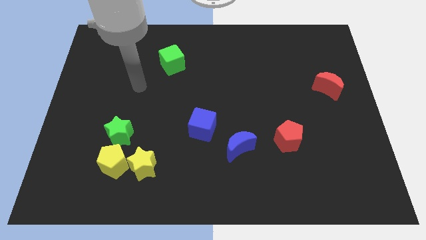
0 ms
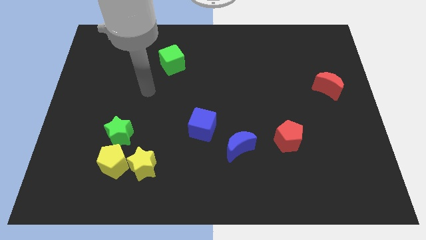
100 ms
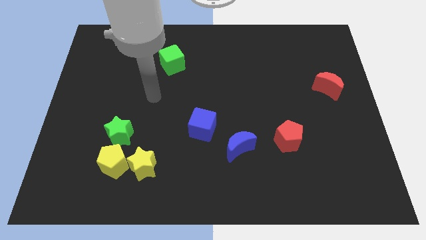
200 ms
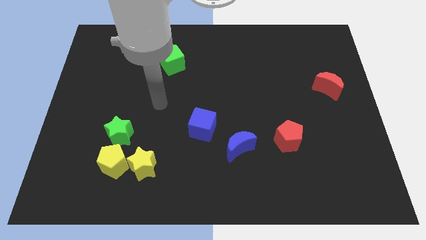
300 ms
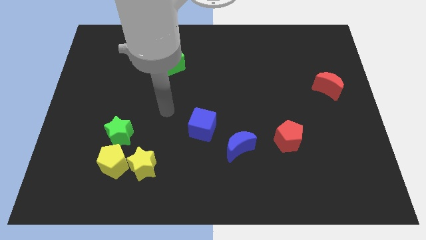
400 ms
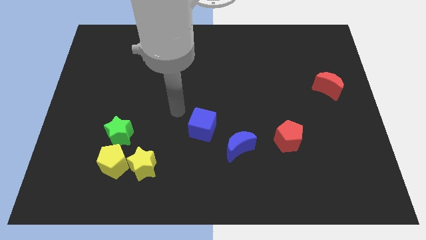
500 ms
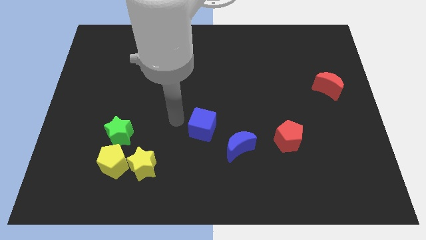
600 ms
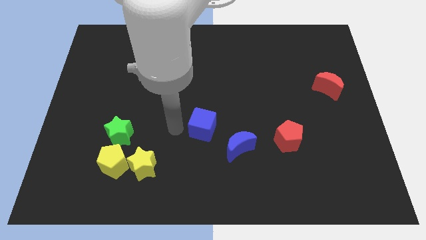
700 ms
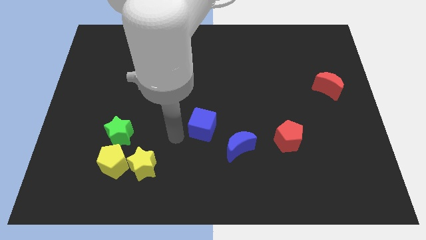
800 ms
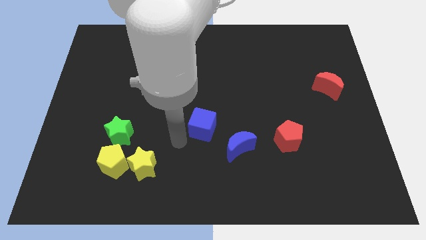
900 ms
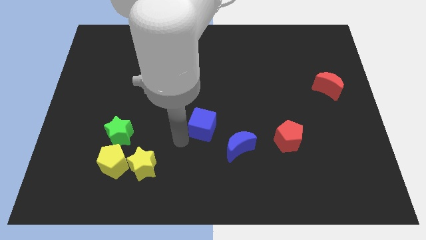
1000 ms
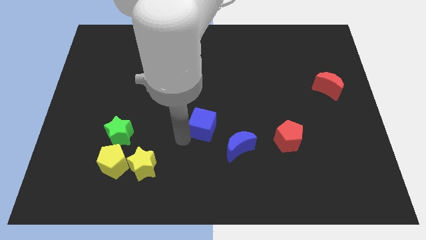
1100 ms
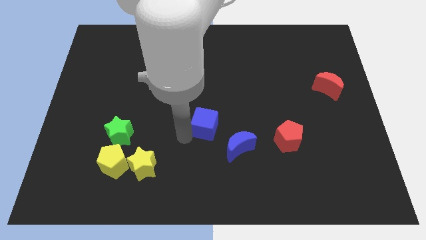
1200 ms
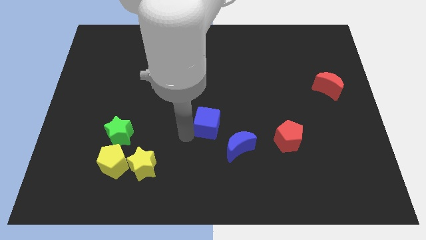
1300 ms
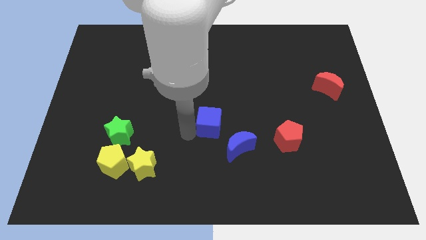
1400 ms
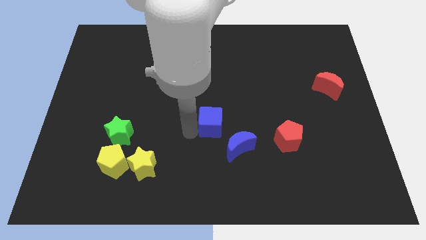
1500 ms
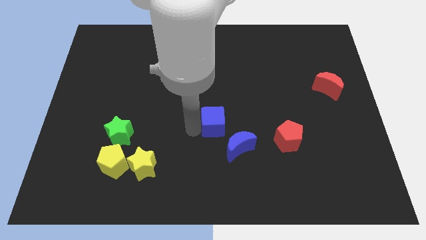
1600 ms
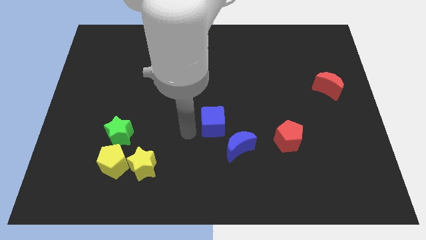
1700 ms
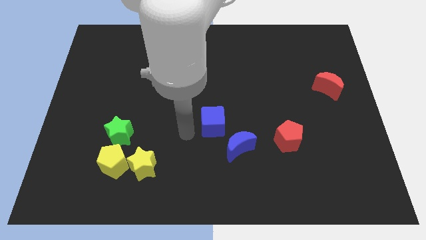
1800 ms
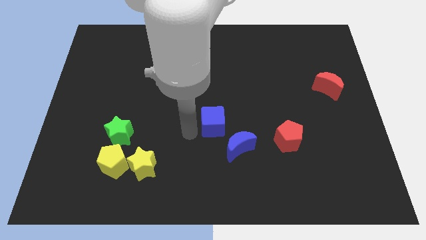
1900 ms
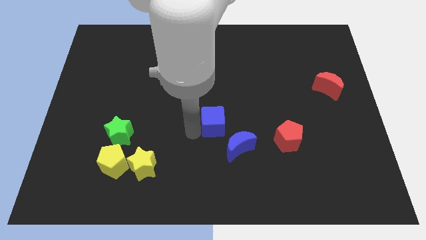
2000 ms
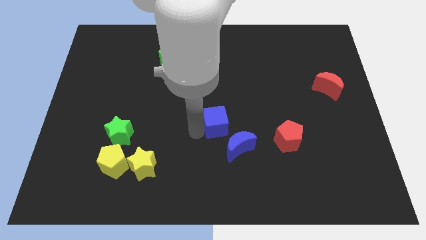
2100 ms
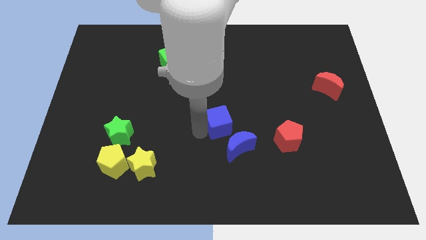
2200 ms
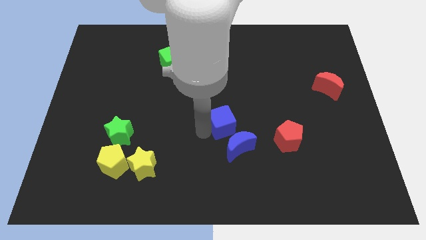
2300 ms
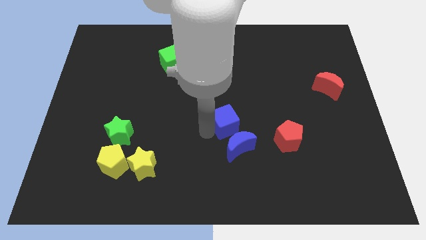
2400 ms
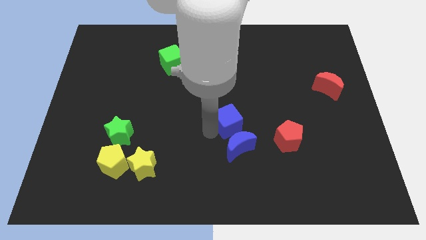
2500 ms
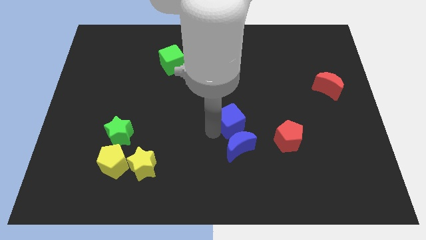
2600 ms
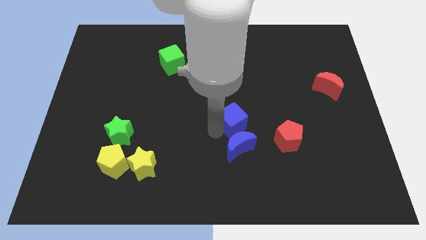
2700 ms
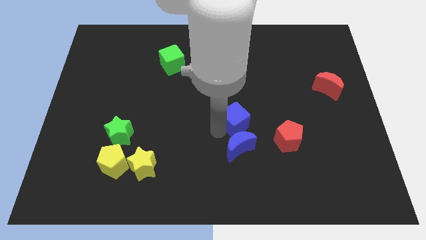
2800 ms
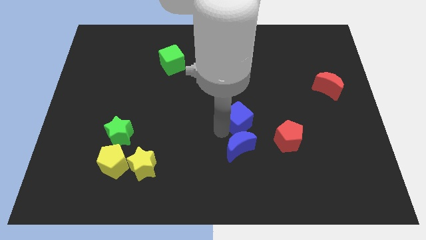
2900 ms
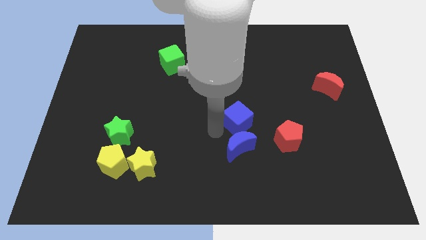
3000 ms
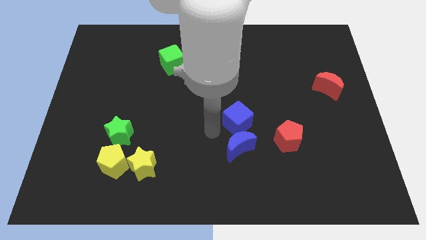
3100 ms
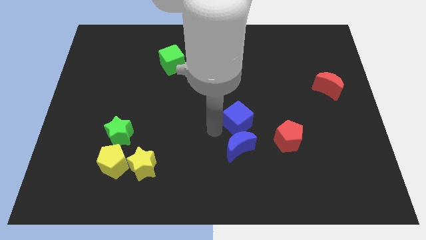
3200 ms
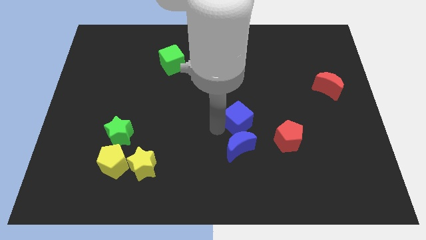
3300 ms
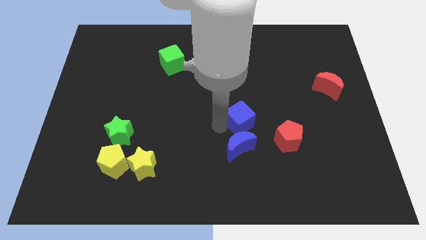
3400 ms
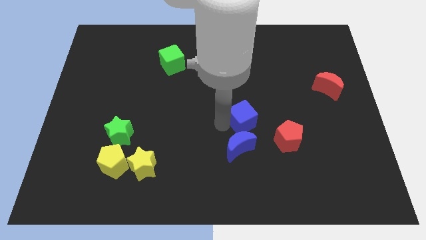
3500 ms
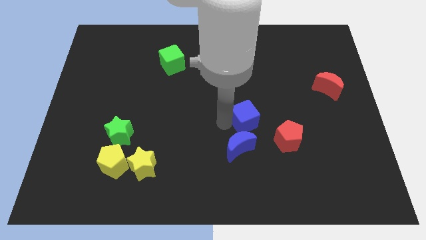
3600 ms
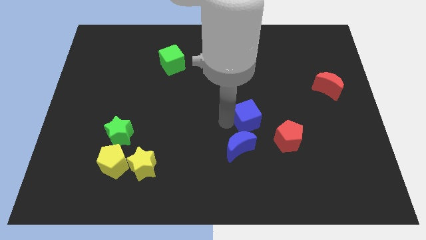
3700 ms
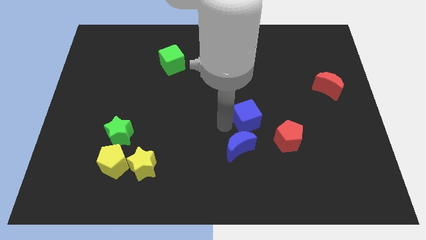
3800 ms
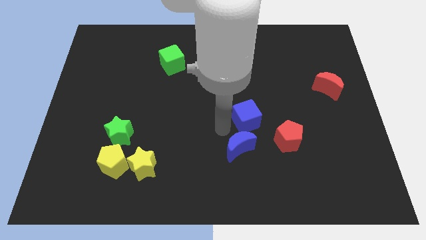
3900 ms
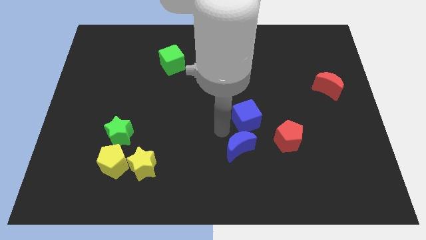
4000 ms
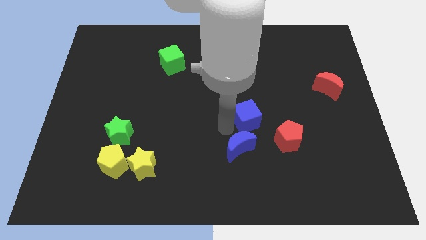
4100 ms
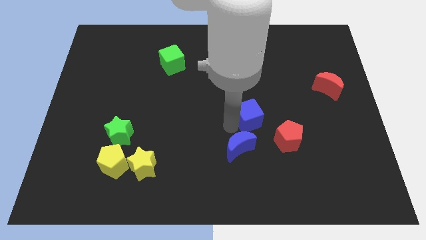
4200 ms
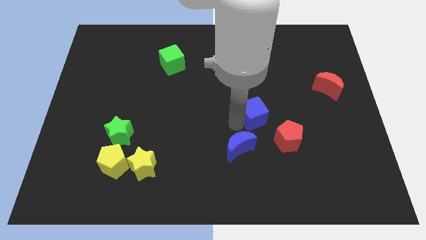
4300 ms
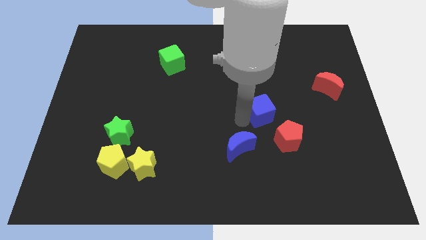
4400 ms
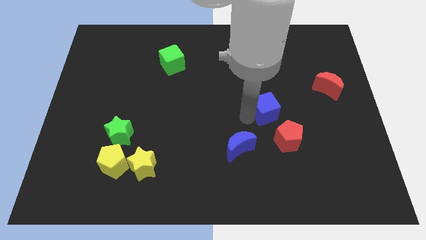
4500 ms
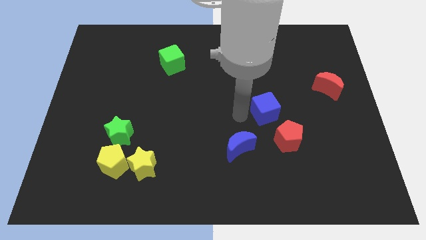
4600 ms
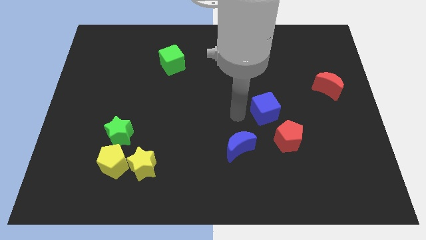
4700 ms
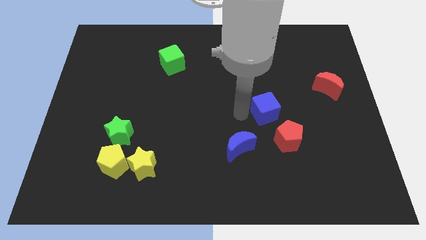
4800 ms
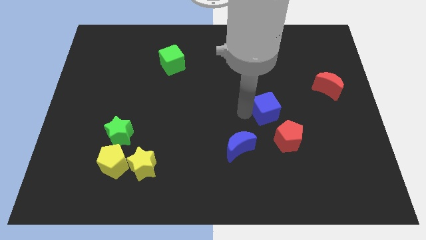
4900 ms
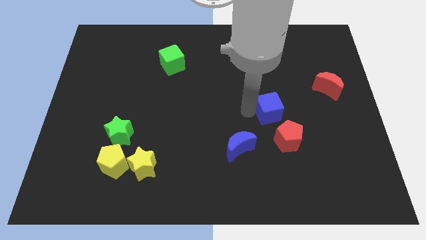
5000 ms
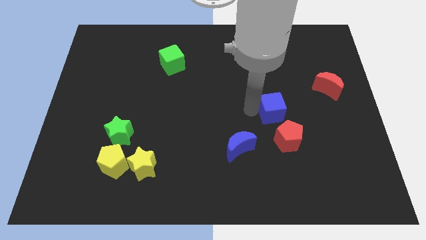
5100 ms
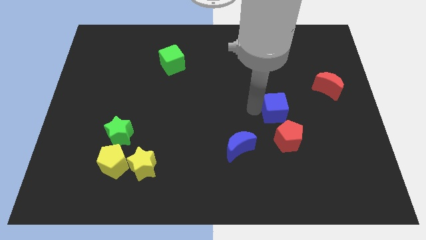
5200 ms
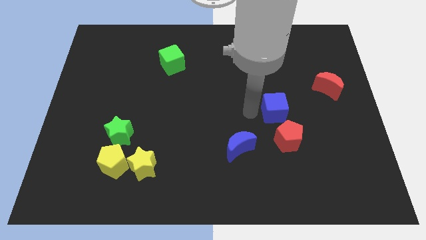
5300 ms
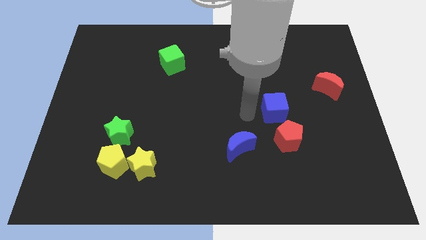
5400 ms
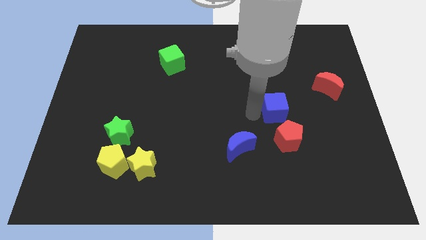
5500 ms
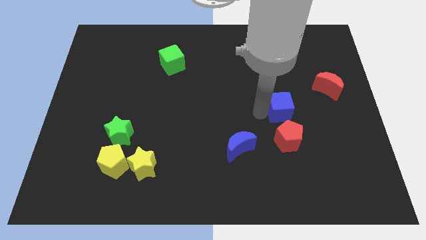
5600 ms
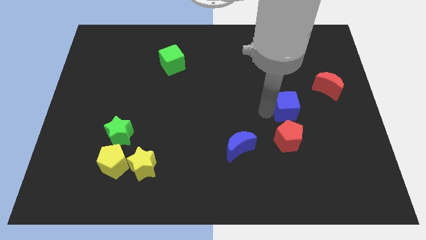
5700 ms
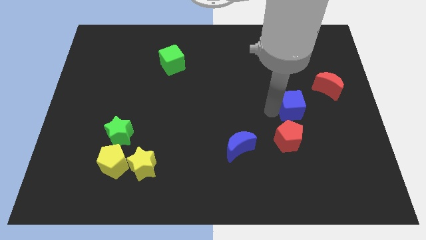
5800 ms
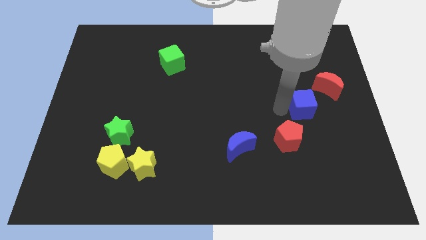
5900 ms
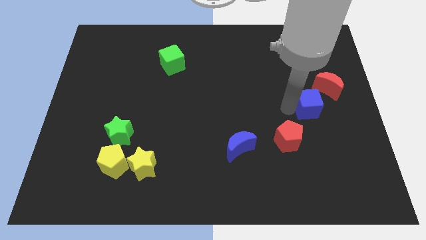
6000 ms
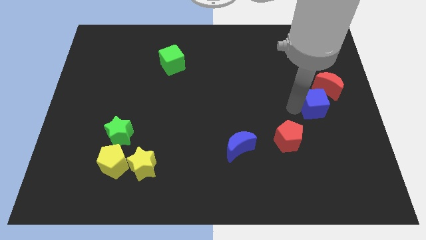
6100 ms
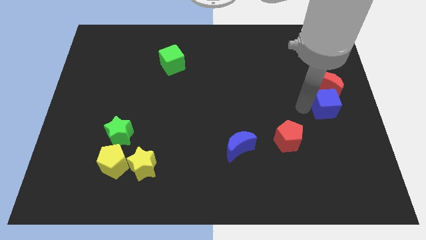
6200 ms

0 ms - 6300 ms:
push the blue cube to the right side
